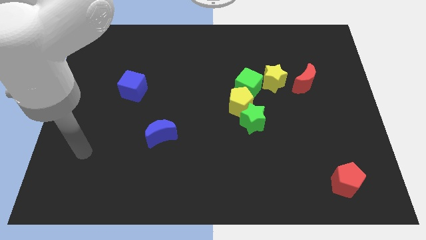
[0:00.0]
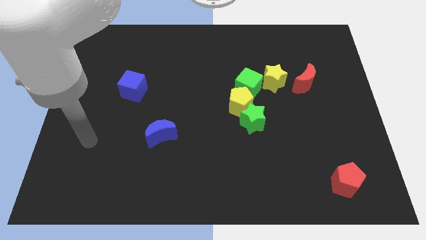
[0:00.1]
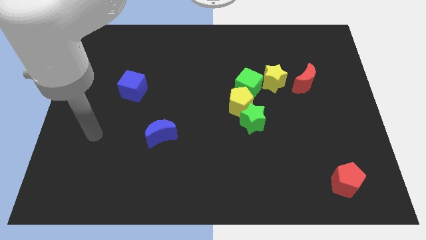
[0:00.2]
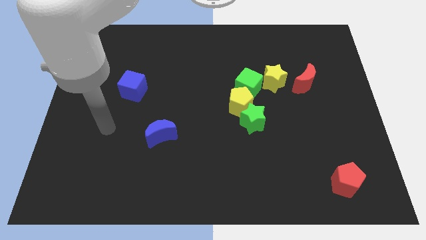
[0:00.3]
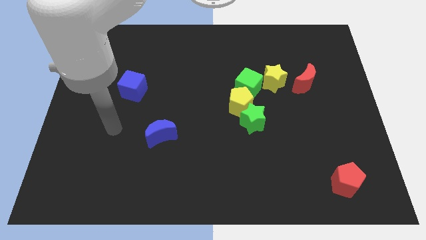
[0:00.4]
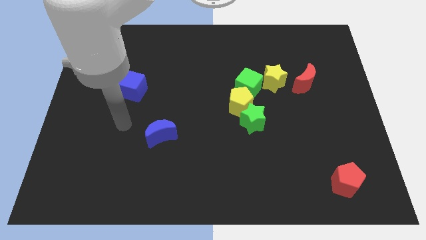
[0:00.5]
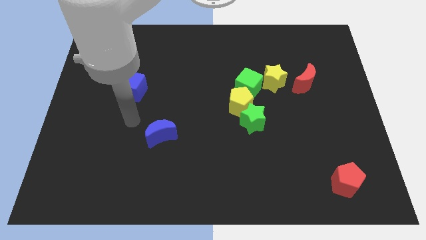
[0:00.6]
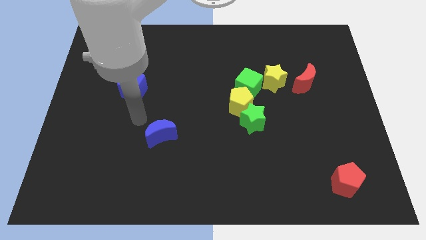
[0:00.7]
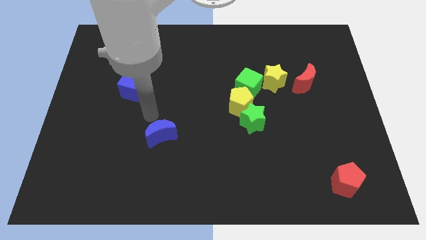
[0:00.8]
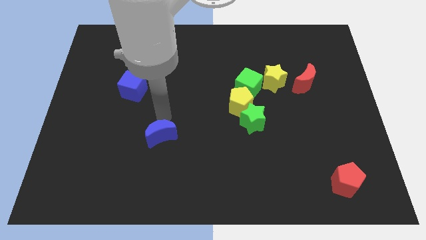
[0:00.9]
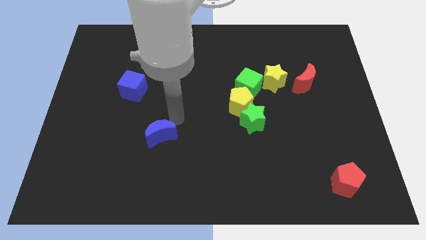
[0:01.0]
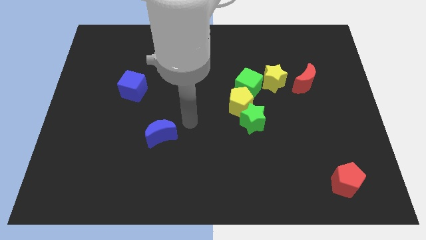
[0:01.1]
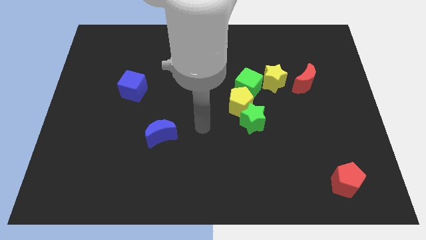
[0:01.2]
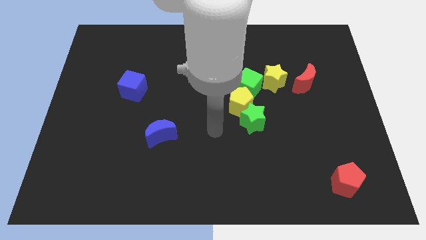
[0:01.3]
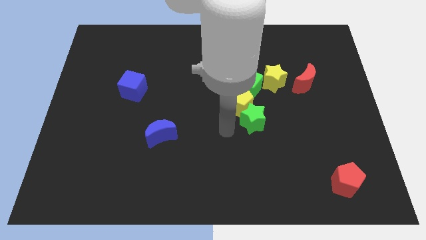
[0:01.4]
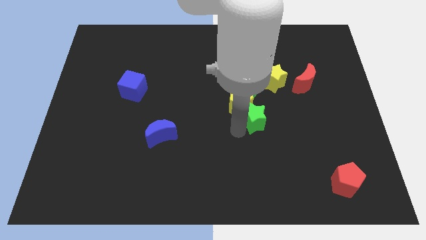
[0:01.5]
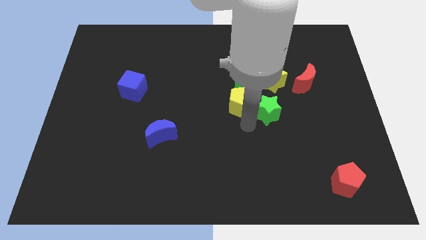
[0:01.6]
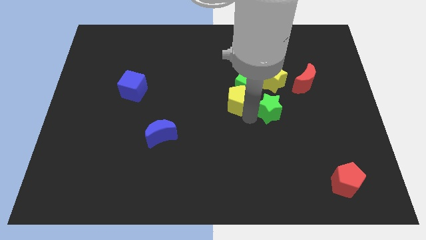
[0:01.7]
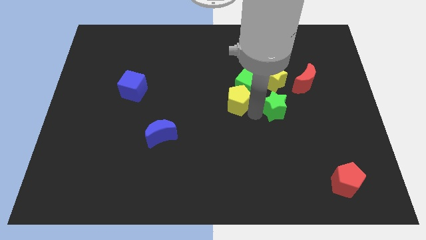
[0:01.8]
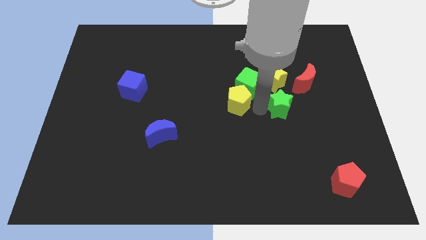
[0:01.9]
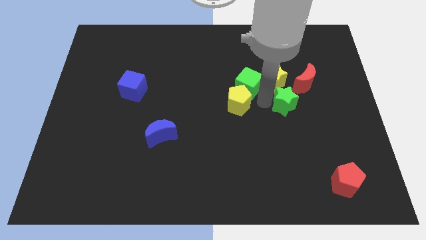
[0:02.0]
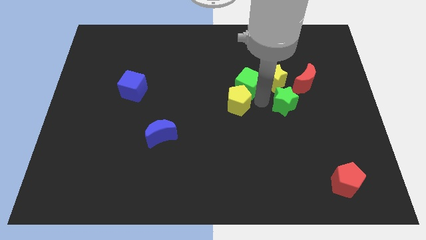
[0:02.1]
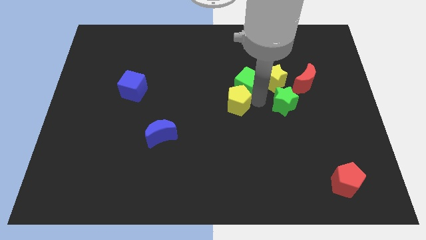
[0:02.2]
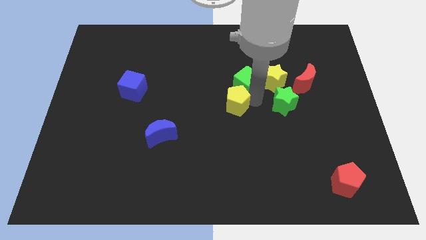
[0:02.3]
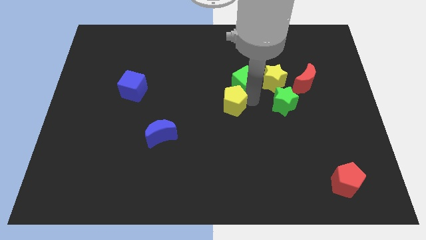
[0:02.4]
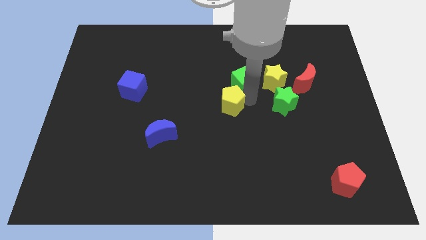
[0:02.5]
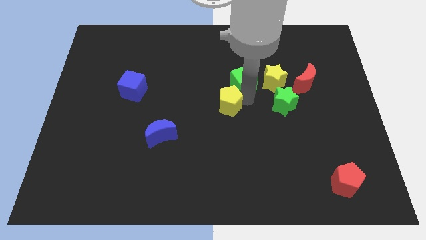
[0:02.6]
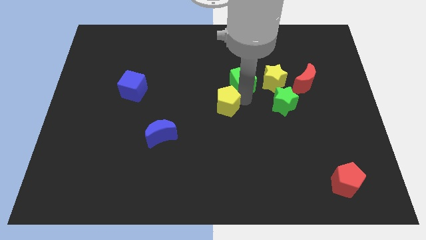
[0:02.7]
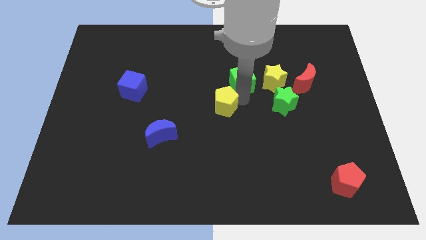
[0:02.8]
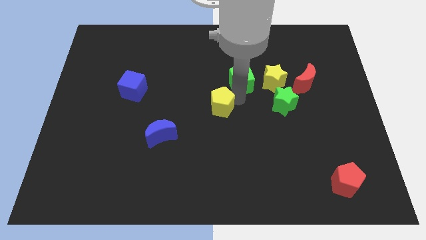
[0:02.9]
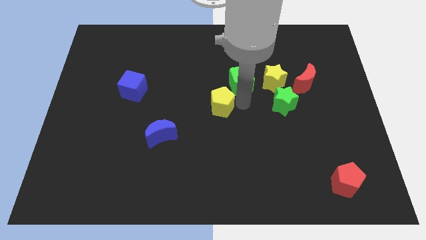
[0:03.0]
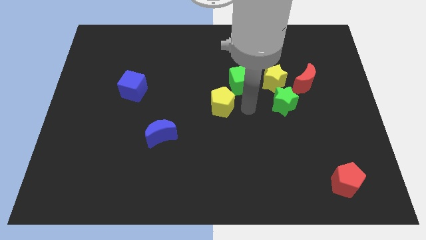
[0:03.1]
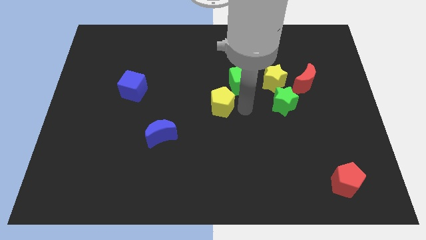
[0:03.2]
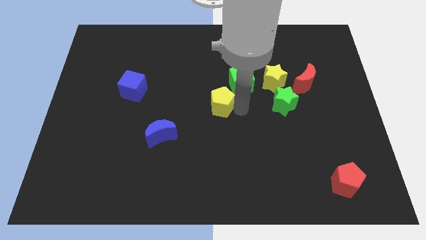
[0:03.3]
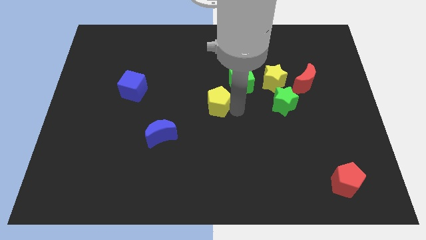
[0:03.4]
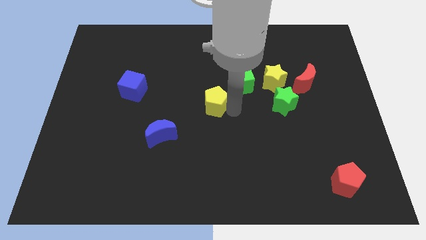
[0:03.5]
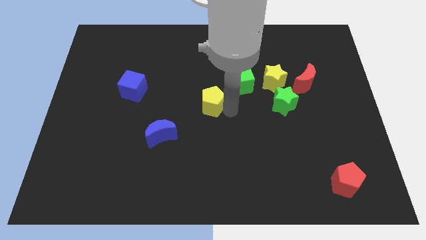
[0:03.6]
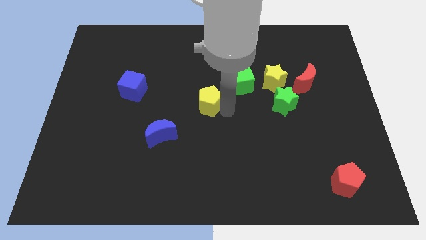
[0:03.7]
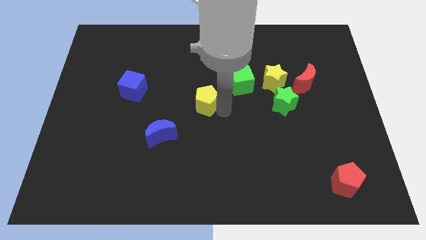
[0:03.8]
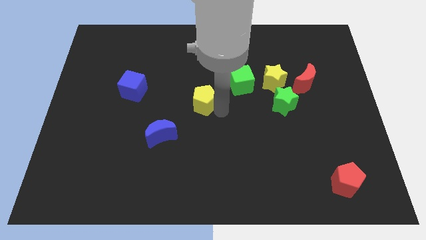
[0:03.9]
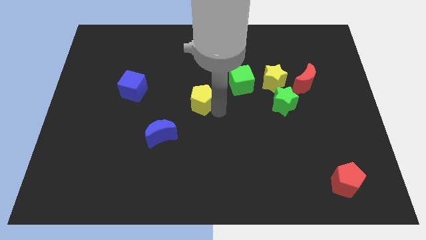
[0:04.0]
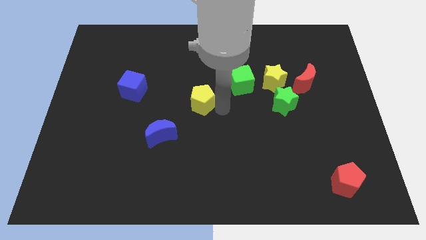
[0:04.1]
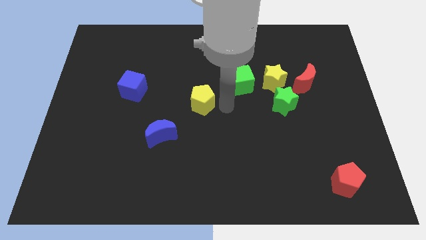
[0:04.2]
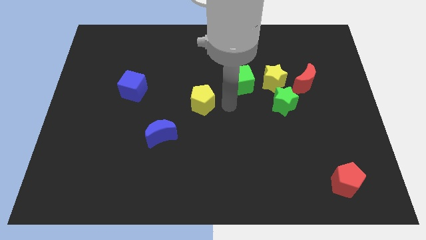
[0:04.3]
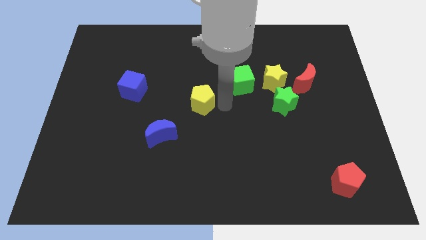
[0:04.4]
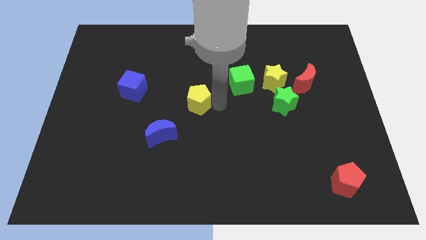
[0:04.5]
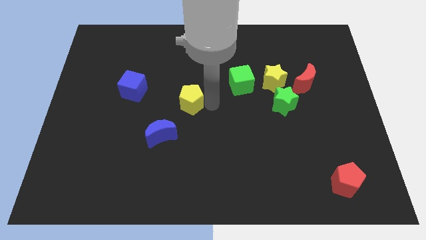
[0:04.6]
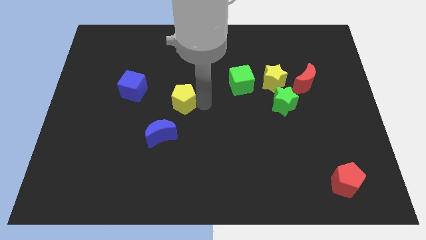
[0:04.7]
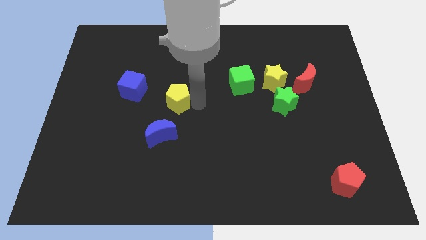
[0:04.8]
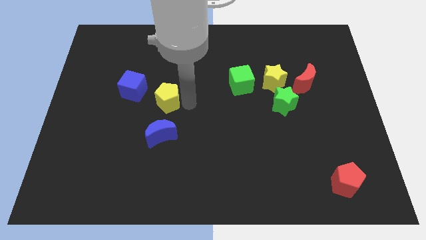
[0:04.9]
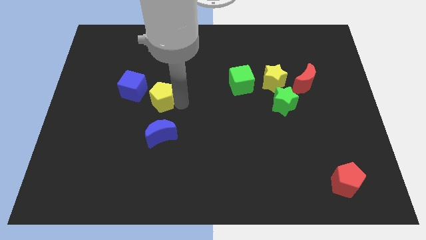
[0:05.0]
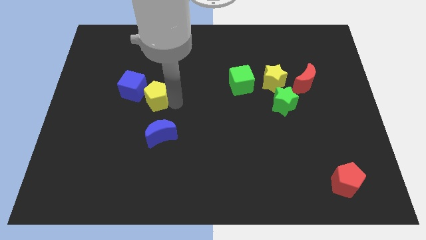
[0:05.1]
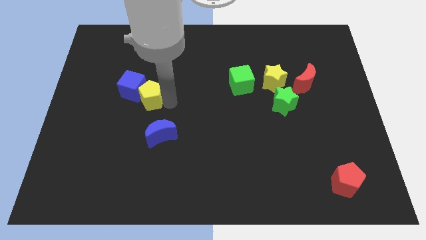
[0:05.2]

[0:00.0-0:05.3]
put the yellow pentagon next to the blue cube

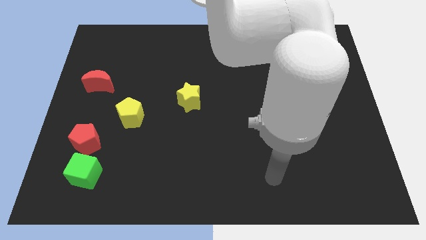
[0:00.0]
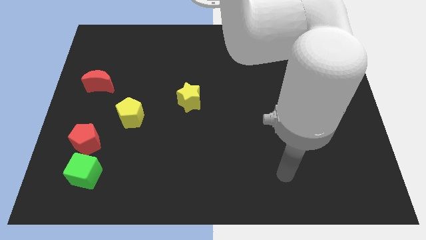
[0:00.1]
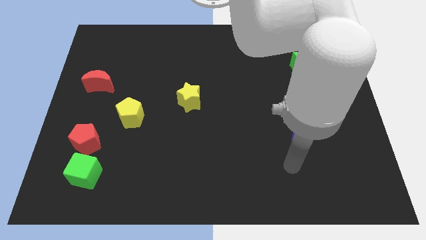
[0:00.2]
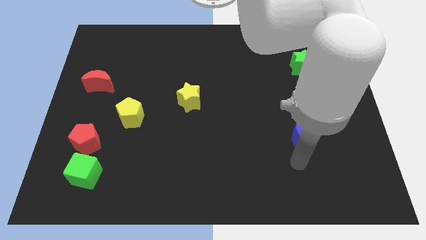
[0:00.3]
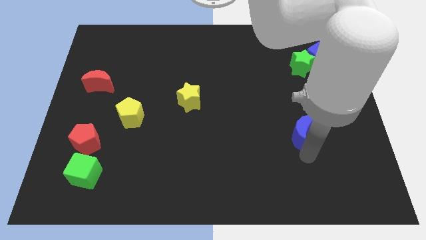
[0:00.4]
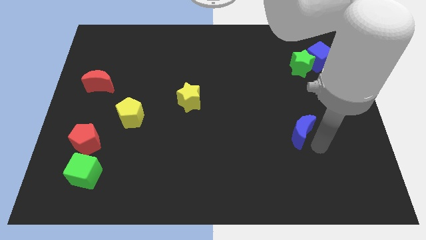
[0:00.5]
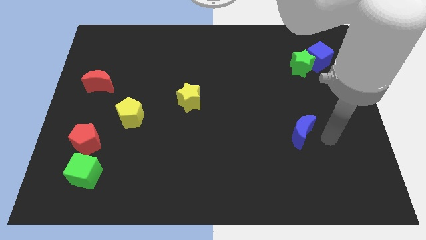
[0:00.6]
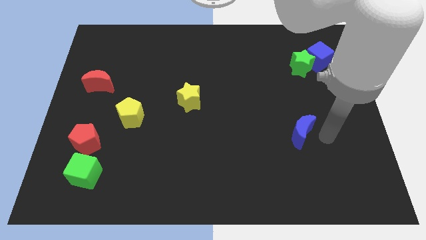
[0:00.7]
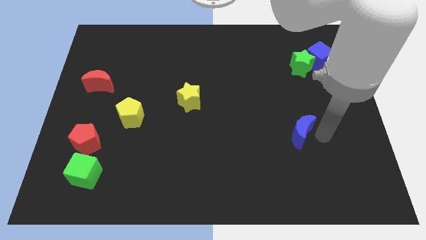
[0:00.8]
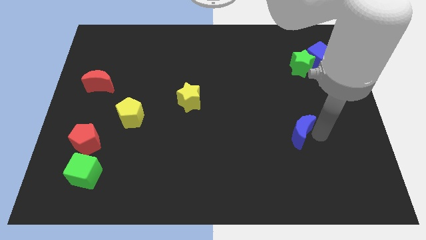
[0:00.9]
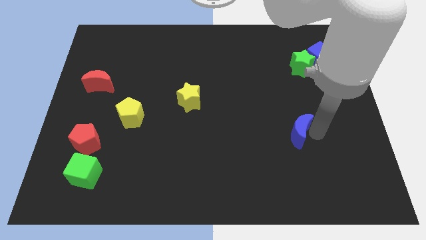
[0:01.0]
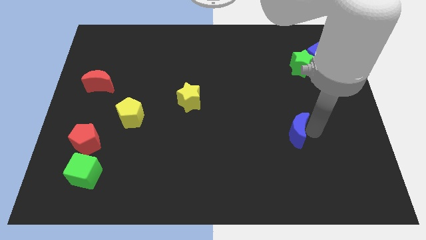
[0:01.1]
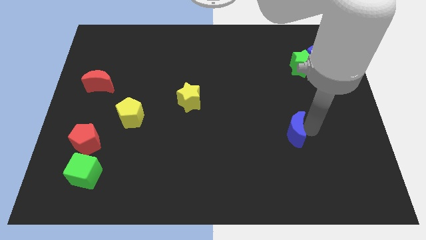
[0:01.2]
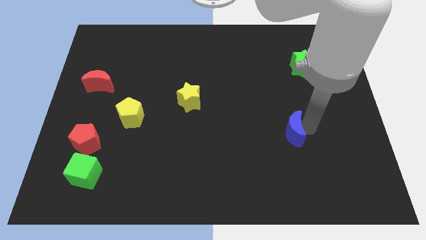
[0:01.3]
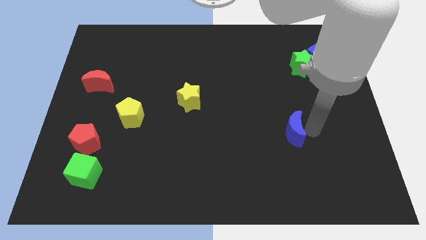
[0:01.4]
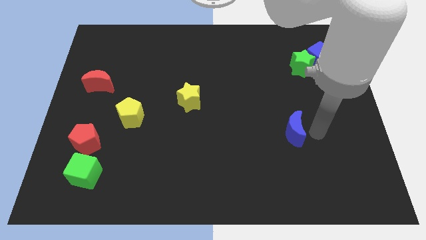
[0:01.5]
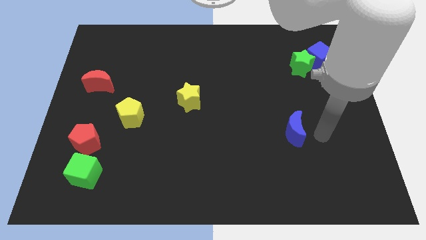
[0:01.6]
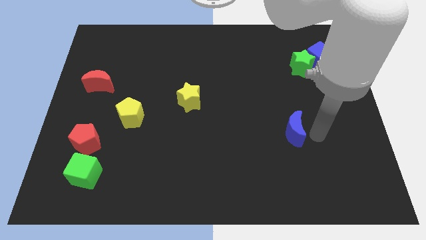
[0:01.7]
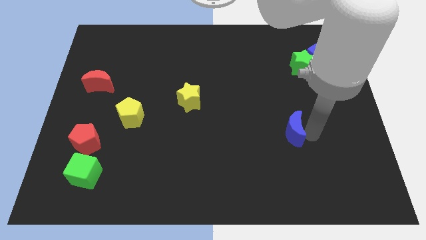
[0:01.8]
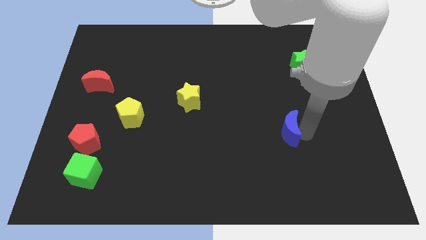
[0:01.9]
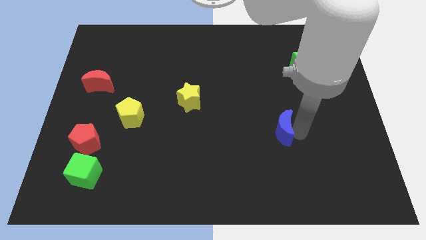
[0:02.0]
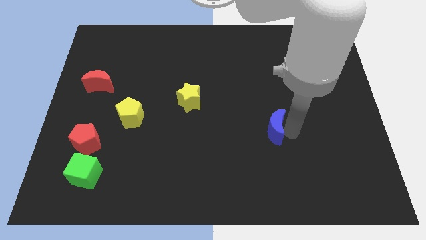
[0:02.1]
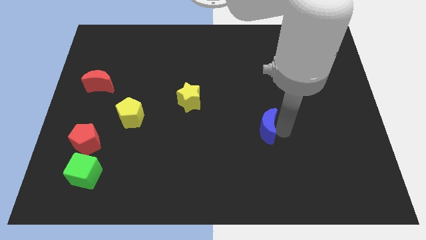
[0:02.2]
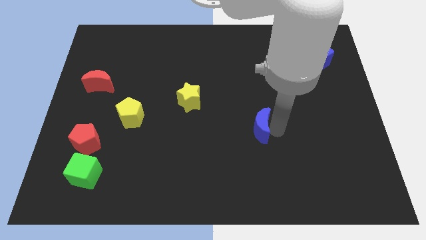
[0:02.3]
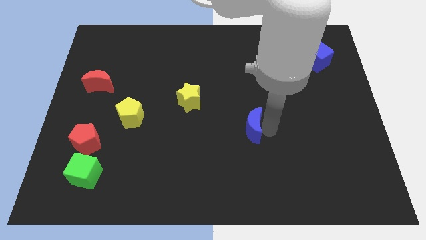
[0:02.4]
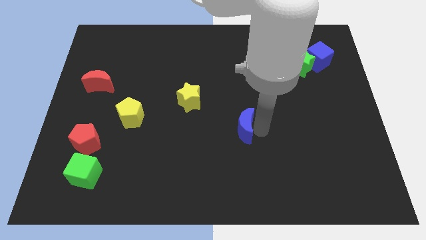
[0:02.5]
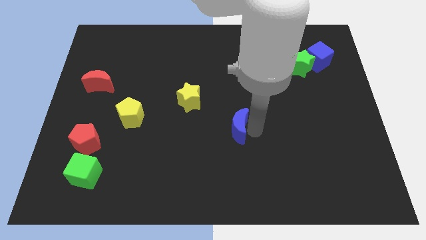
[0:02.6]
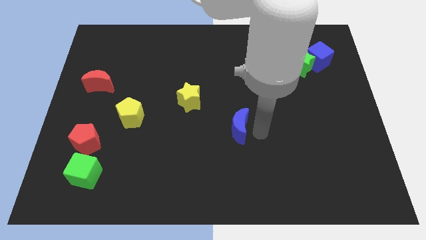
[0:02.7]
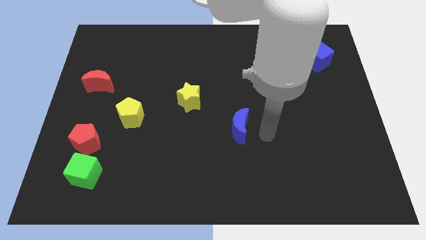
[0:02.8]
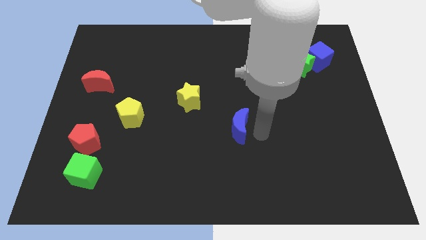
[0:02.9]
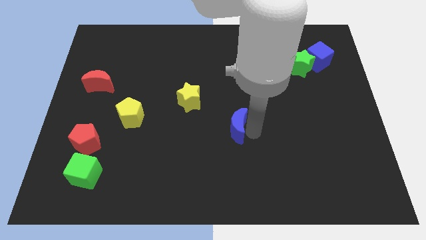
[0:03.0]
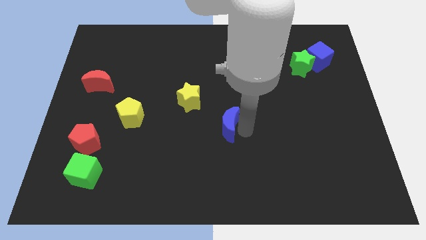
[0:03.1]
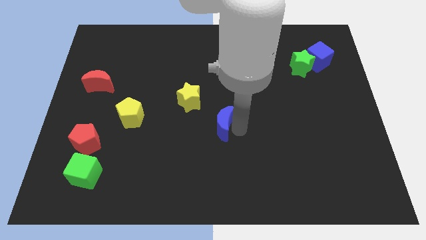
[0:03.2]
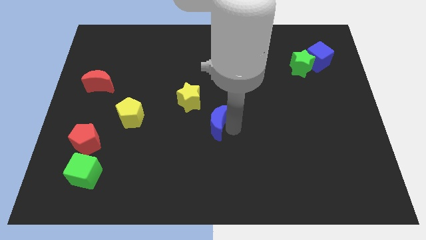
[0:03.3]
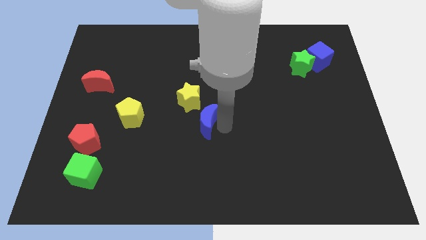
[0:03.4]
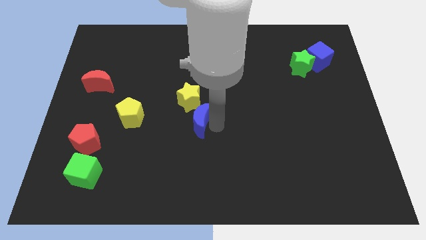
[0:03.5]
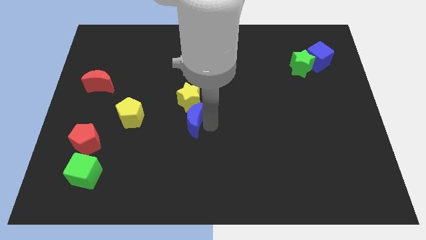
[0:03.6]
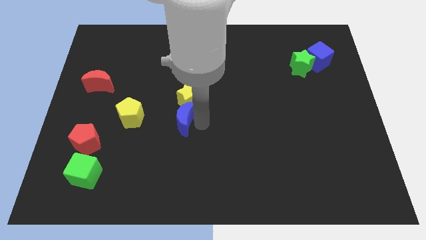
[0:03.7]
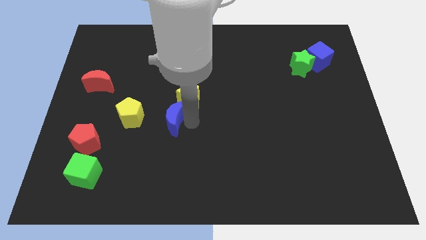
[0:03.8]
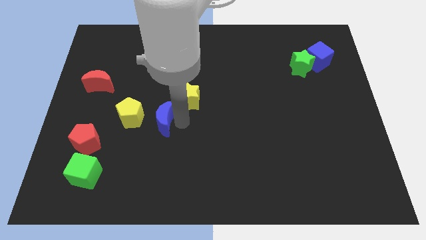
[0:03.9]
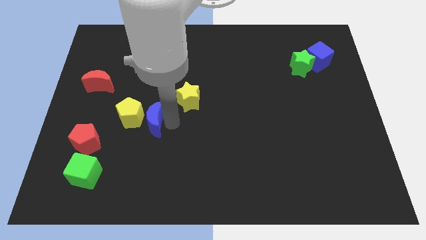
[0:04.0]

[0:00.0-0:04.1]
move the blue moon close to the yellow pentagon
